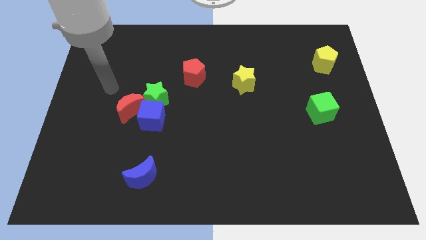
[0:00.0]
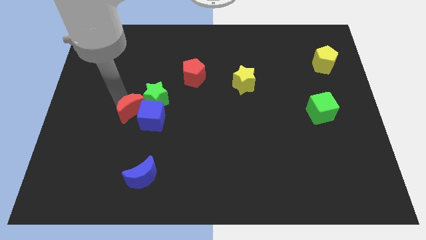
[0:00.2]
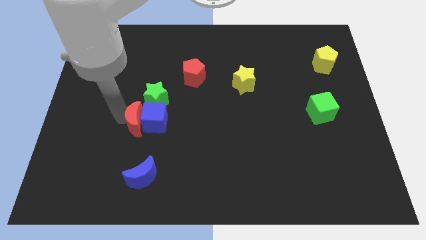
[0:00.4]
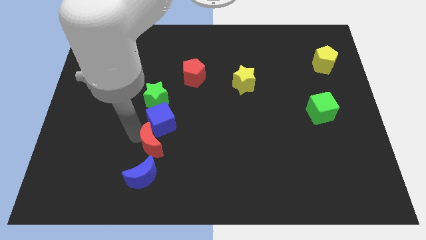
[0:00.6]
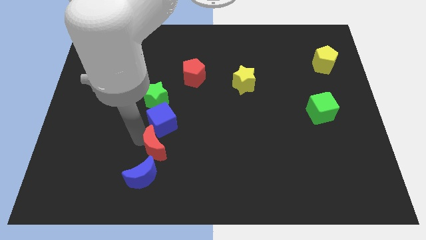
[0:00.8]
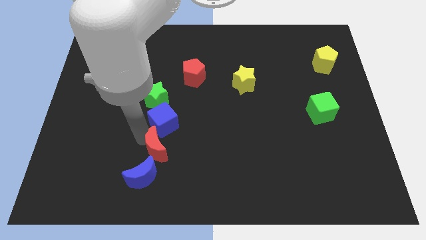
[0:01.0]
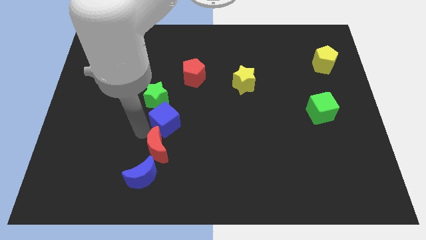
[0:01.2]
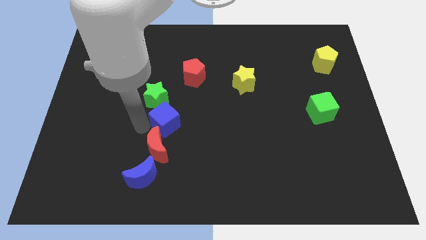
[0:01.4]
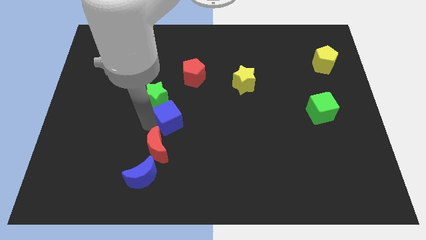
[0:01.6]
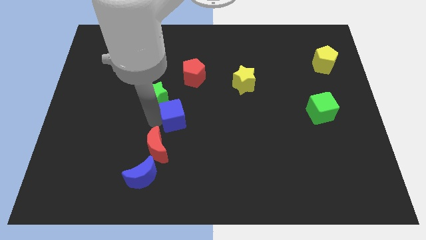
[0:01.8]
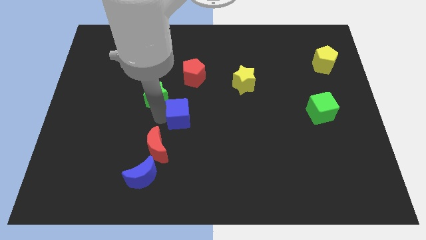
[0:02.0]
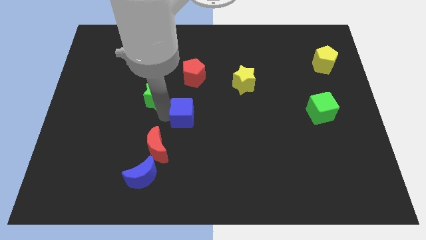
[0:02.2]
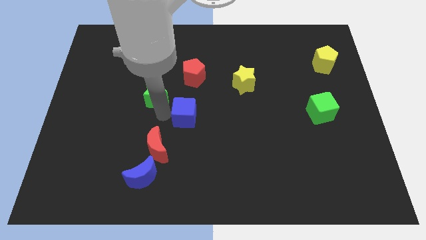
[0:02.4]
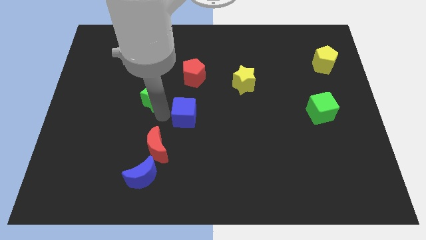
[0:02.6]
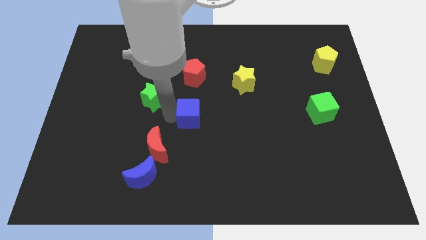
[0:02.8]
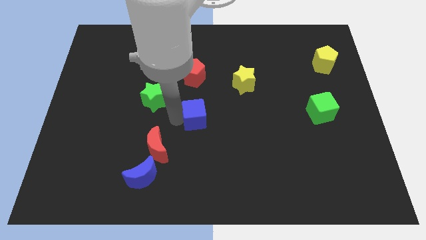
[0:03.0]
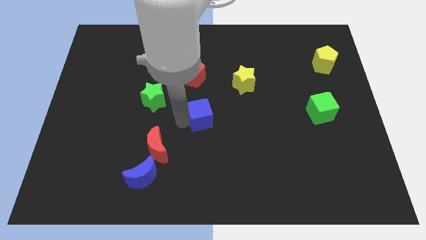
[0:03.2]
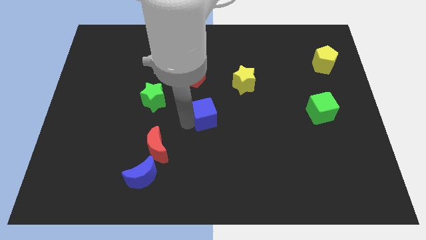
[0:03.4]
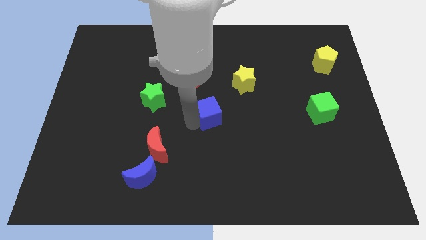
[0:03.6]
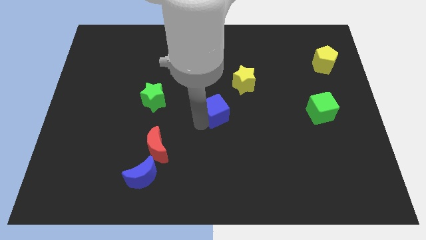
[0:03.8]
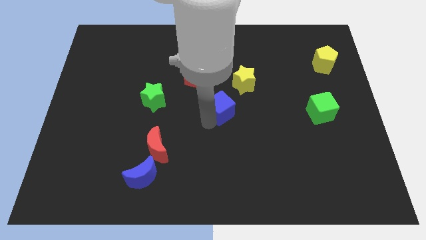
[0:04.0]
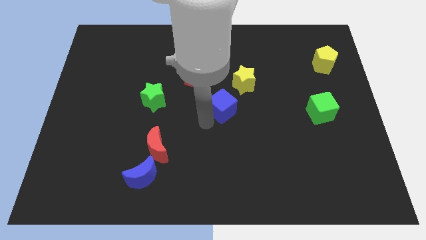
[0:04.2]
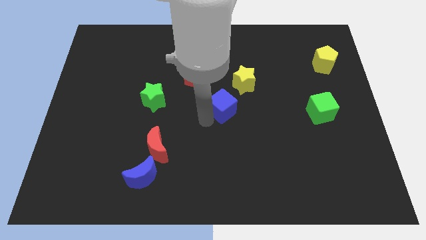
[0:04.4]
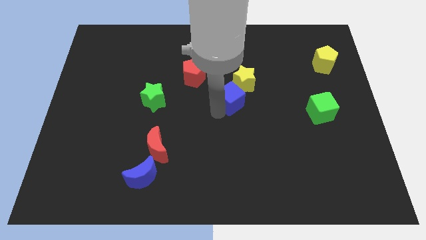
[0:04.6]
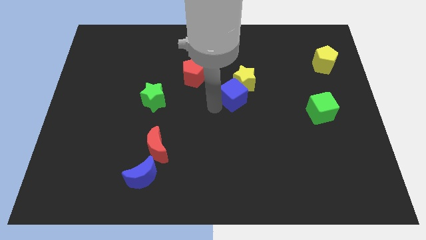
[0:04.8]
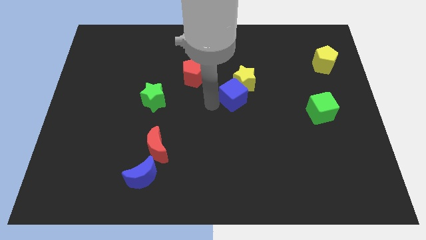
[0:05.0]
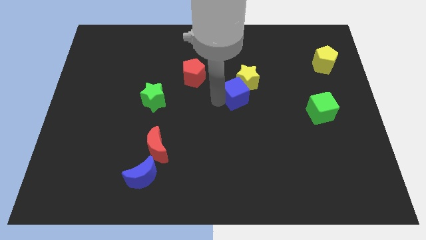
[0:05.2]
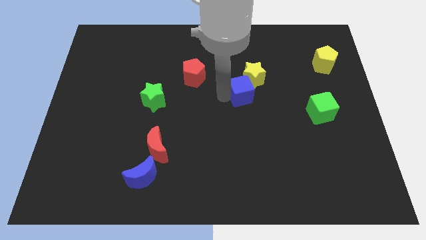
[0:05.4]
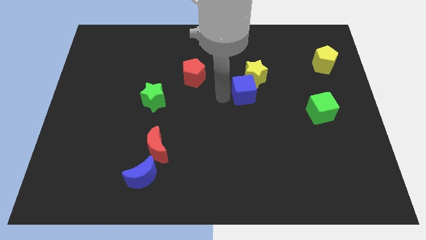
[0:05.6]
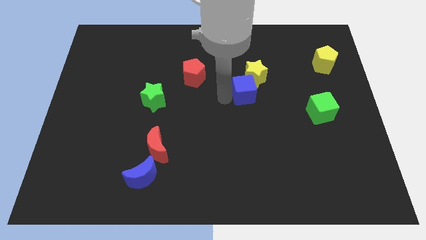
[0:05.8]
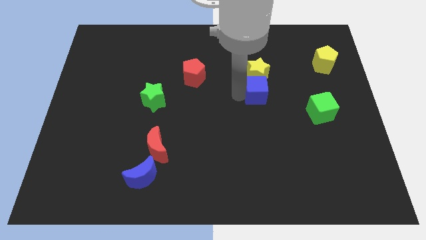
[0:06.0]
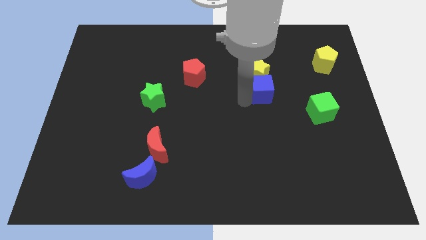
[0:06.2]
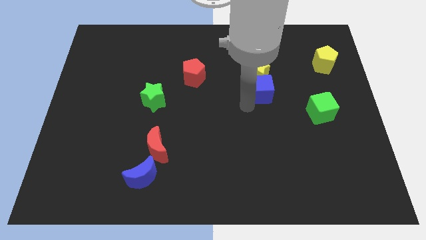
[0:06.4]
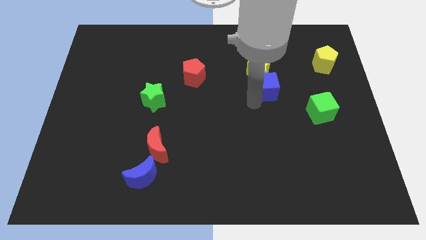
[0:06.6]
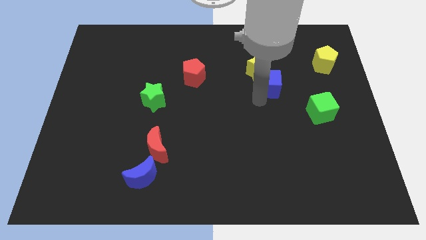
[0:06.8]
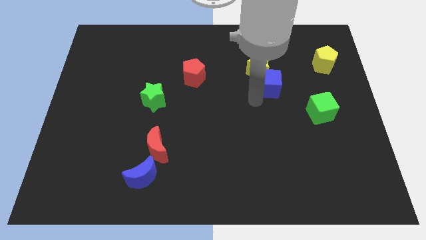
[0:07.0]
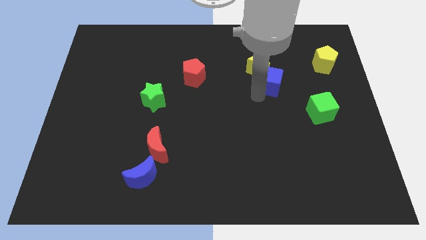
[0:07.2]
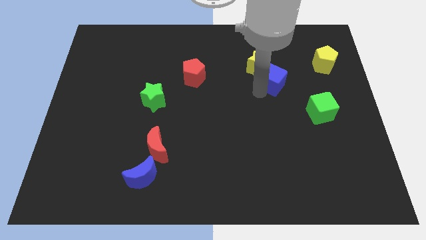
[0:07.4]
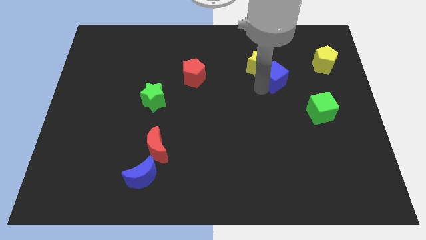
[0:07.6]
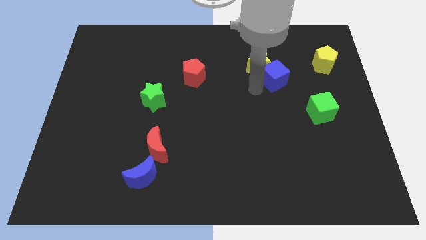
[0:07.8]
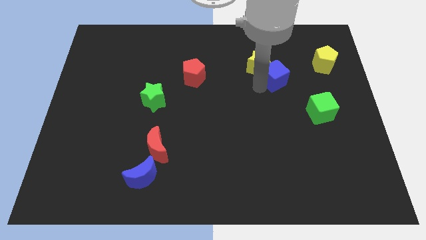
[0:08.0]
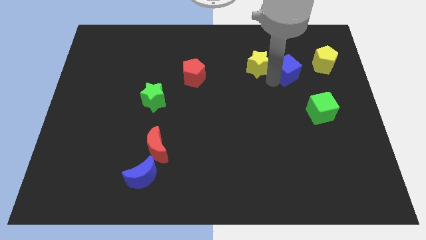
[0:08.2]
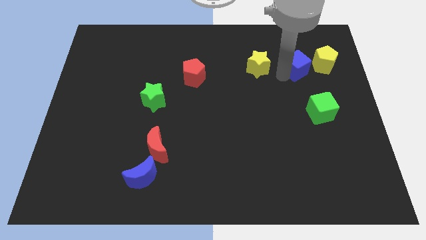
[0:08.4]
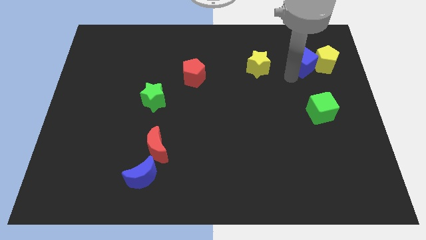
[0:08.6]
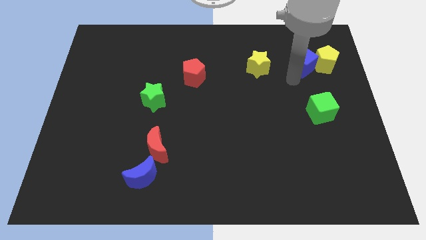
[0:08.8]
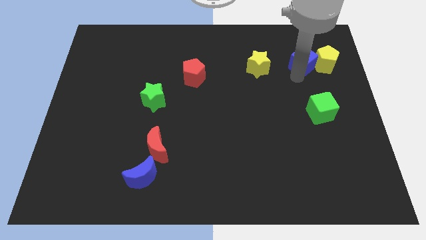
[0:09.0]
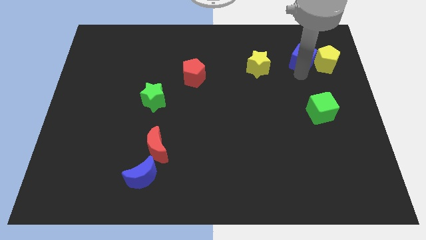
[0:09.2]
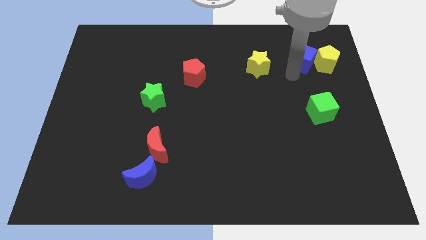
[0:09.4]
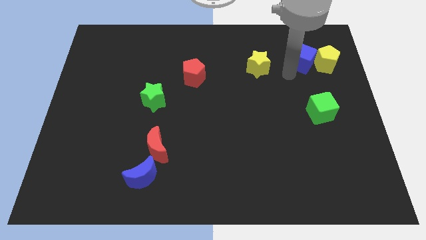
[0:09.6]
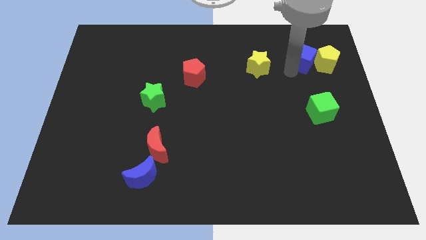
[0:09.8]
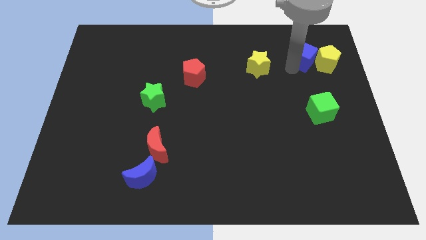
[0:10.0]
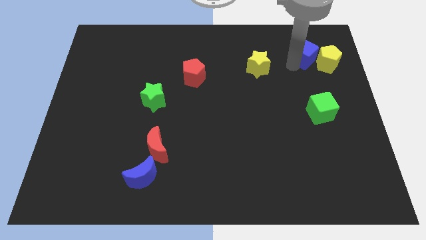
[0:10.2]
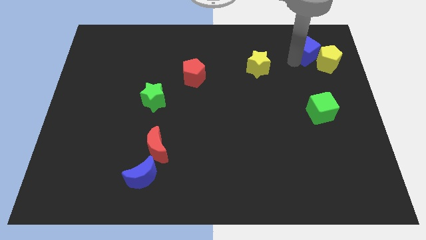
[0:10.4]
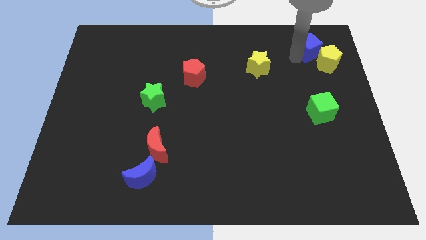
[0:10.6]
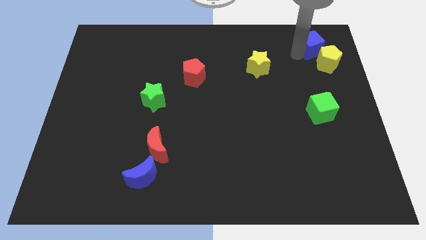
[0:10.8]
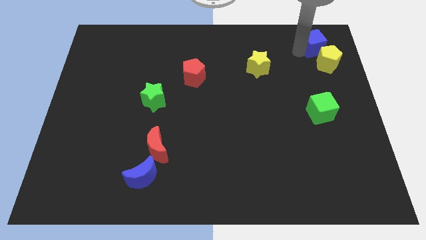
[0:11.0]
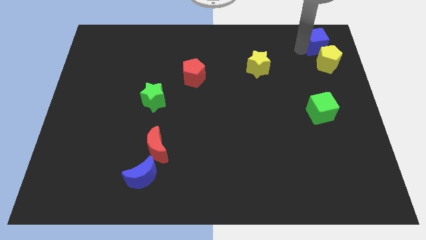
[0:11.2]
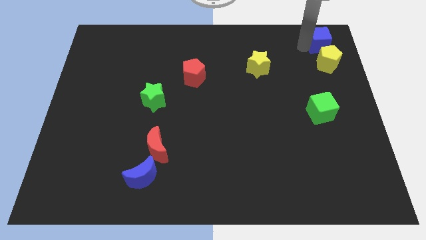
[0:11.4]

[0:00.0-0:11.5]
put the blue cube to the upper right corner

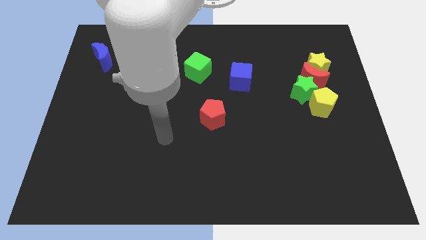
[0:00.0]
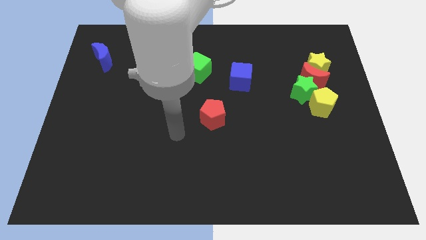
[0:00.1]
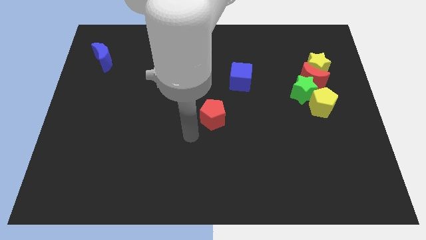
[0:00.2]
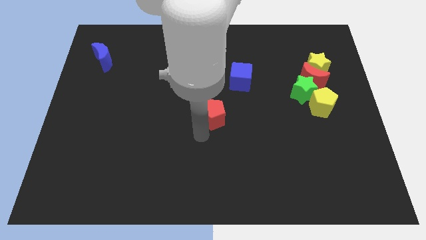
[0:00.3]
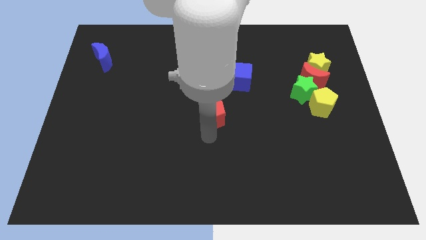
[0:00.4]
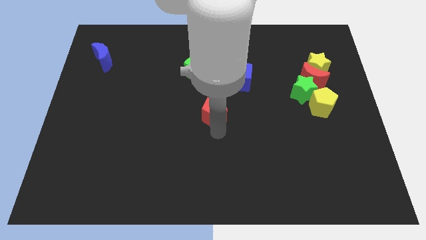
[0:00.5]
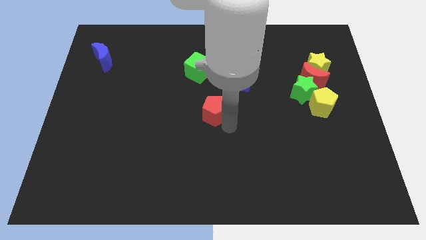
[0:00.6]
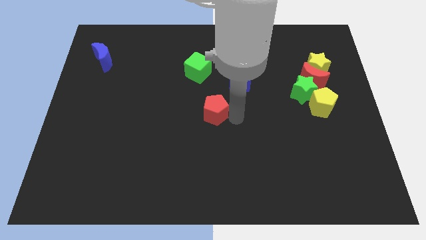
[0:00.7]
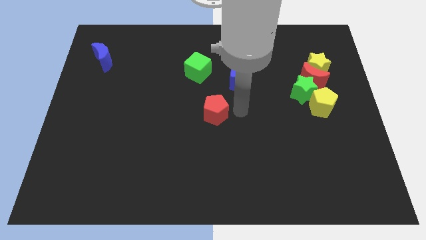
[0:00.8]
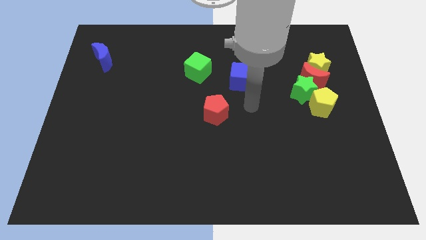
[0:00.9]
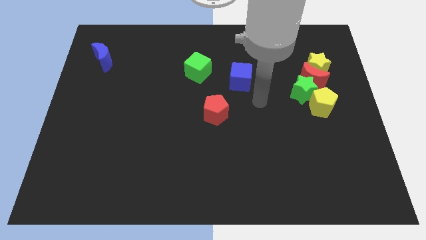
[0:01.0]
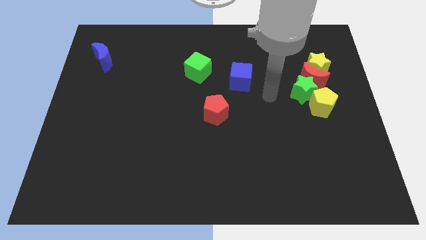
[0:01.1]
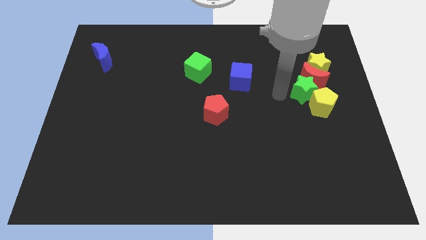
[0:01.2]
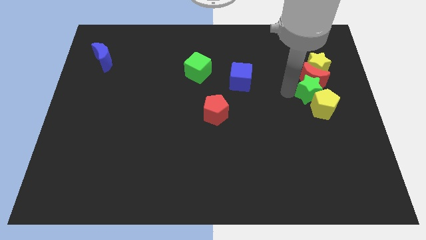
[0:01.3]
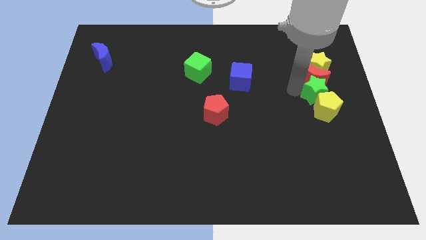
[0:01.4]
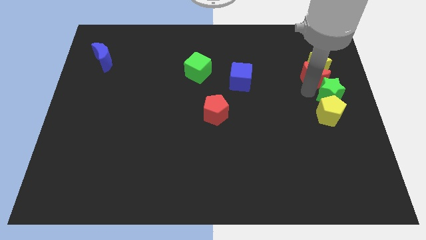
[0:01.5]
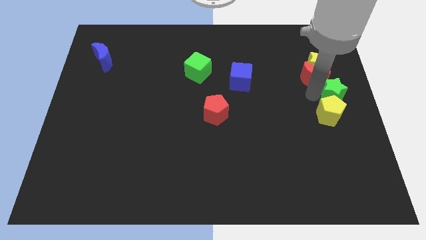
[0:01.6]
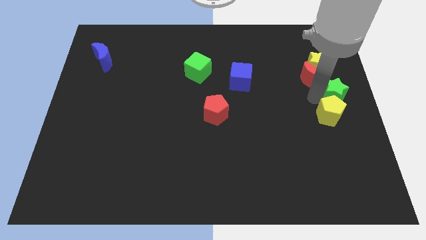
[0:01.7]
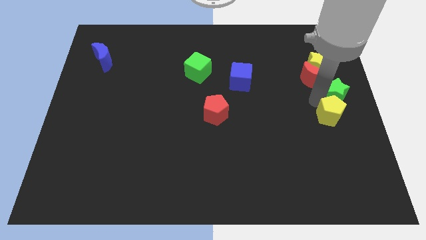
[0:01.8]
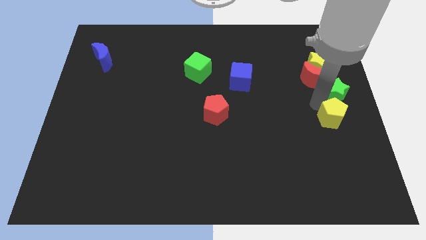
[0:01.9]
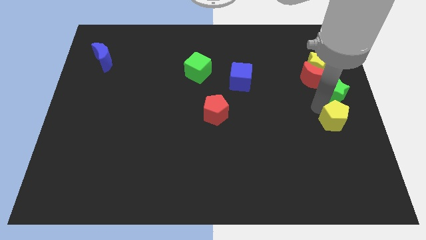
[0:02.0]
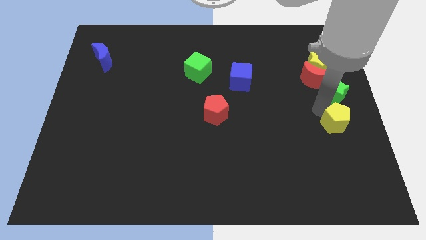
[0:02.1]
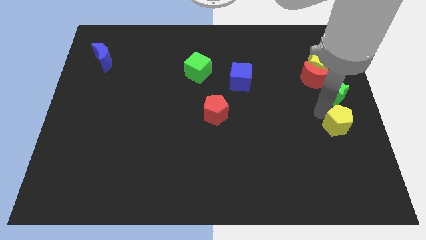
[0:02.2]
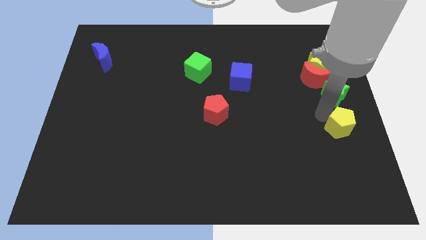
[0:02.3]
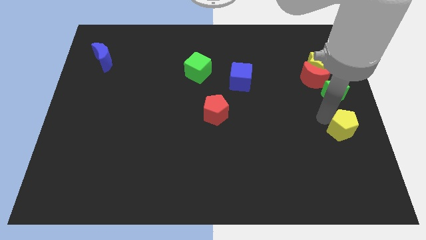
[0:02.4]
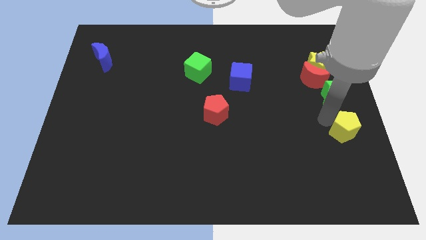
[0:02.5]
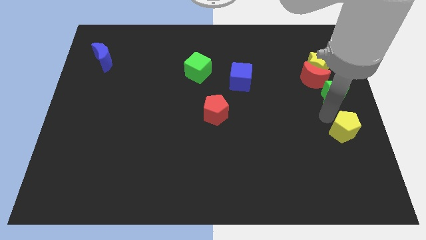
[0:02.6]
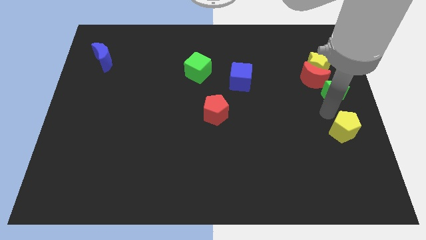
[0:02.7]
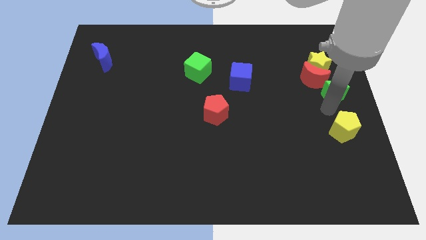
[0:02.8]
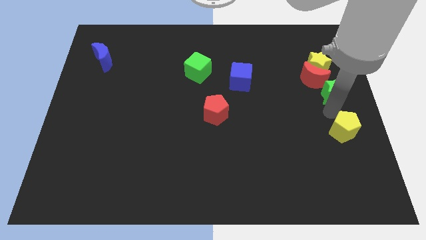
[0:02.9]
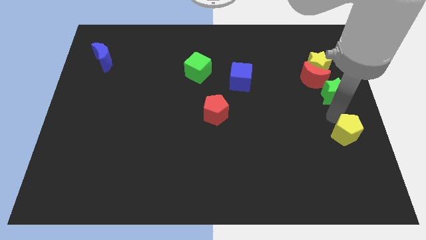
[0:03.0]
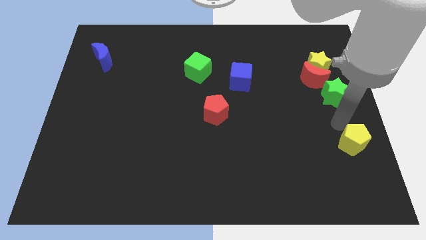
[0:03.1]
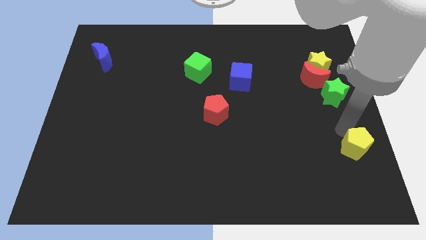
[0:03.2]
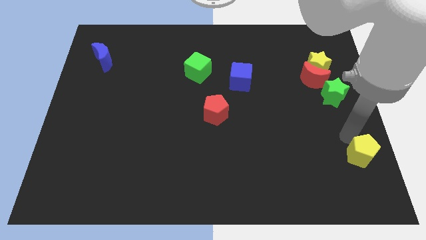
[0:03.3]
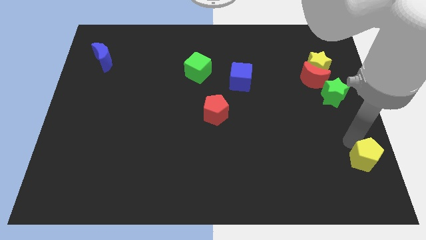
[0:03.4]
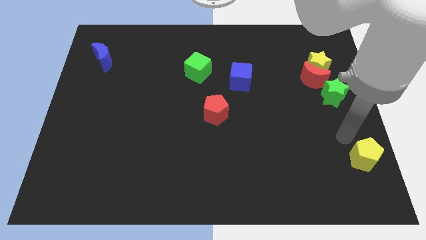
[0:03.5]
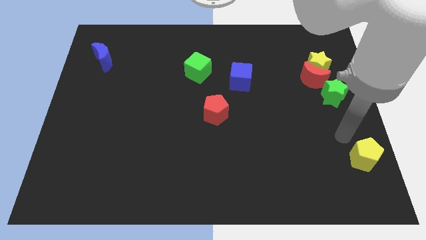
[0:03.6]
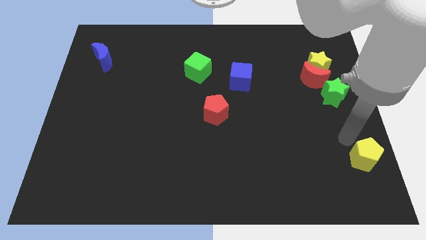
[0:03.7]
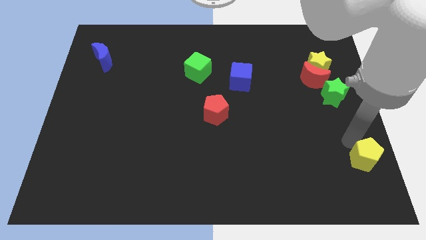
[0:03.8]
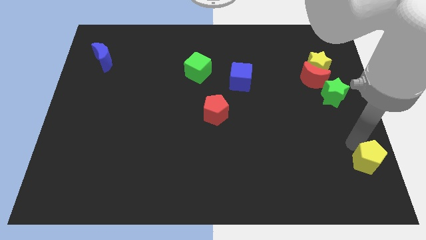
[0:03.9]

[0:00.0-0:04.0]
move the yellow pentagon to the bottom right of the board
